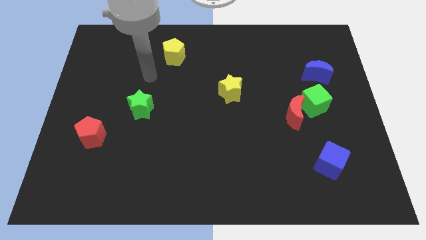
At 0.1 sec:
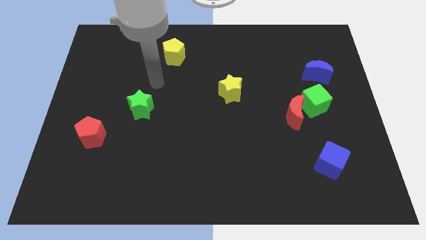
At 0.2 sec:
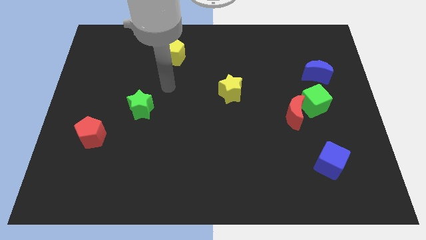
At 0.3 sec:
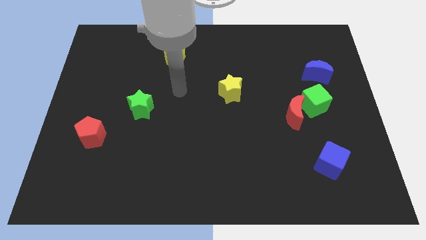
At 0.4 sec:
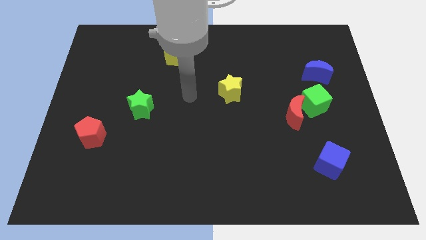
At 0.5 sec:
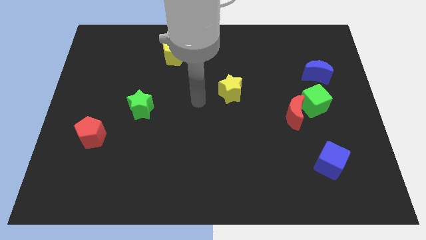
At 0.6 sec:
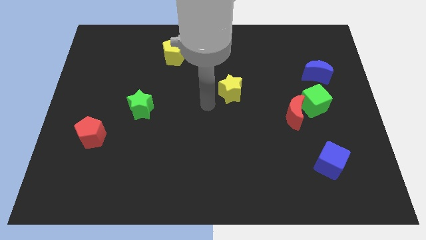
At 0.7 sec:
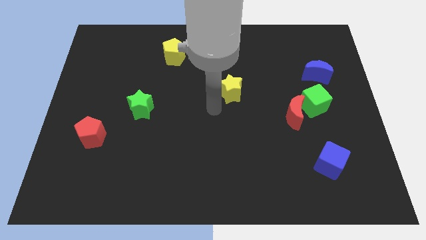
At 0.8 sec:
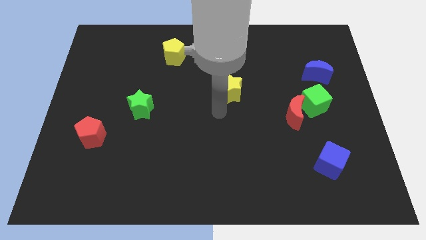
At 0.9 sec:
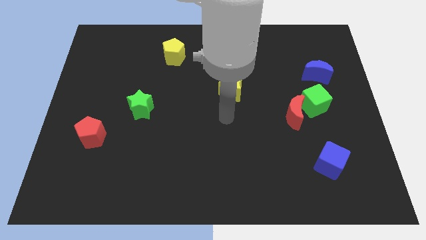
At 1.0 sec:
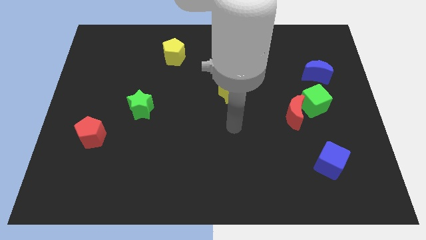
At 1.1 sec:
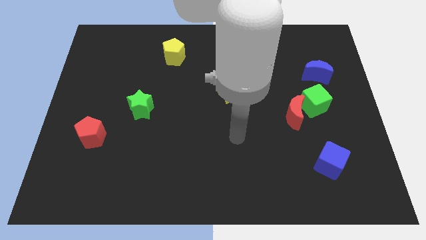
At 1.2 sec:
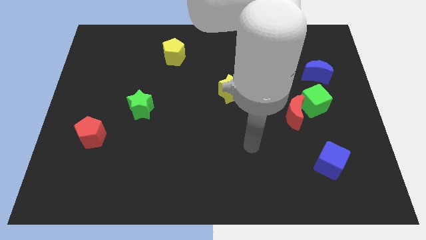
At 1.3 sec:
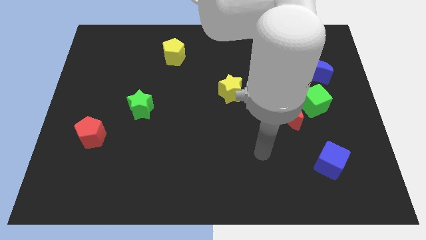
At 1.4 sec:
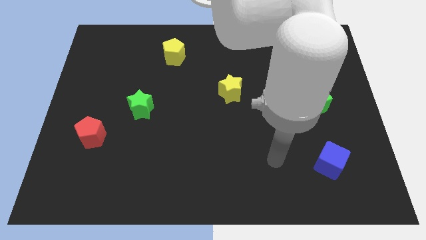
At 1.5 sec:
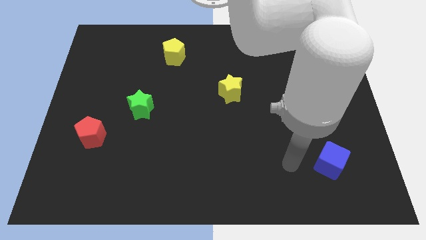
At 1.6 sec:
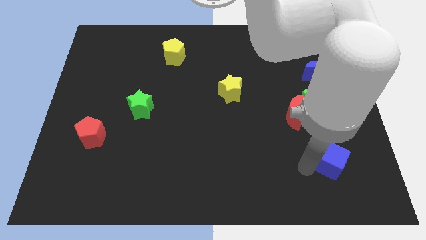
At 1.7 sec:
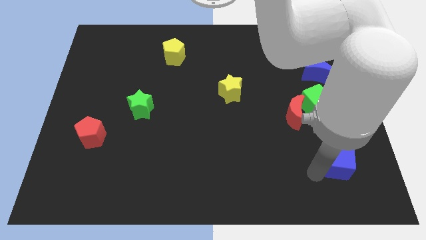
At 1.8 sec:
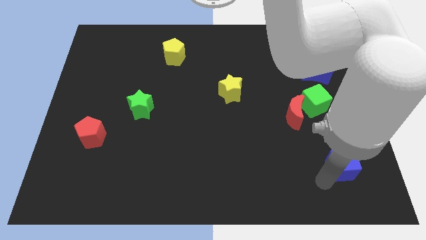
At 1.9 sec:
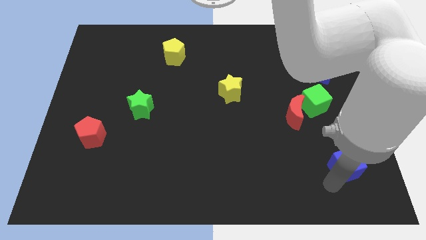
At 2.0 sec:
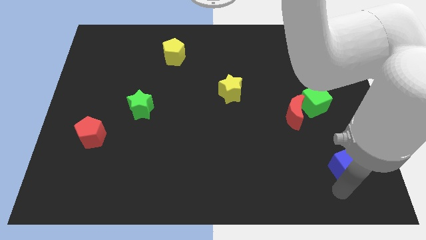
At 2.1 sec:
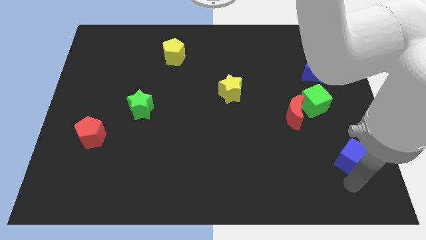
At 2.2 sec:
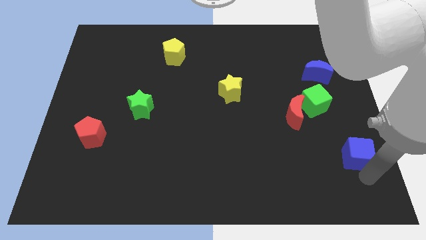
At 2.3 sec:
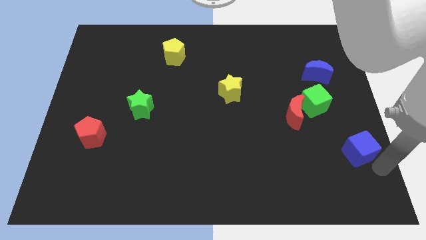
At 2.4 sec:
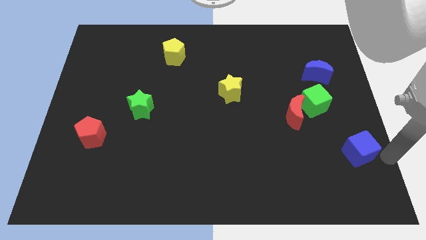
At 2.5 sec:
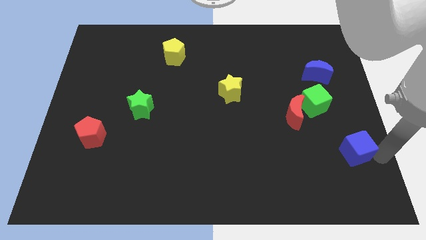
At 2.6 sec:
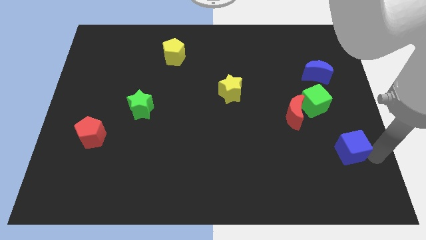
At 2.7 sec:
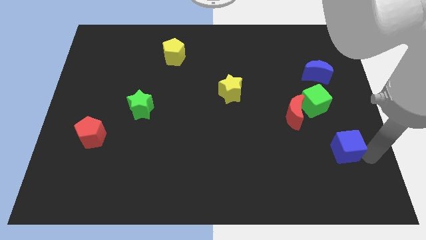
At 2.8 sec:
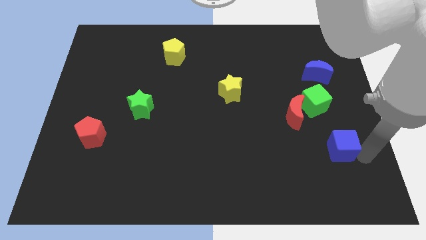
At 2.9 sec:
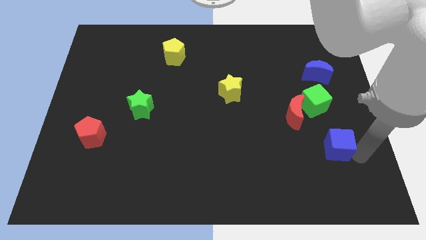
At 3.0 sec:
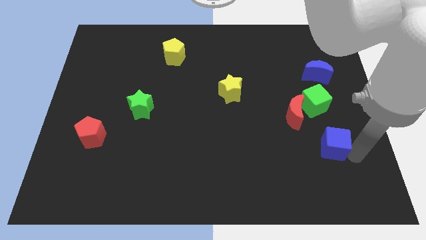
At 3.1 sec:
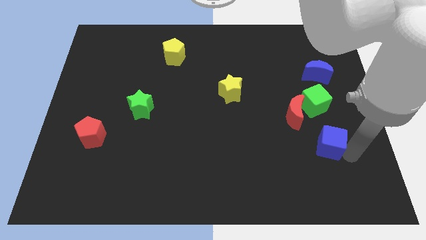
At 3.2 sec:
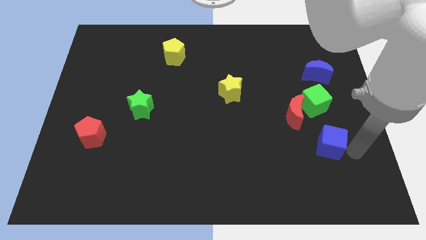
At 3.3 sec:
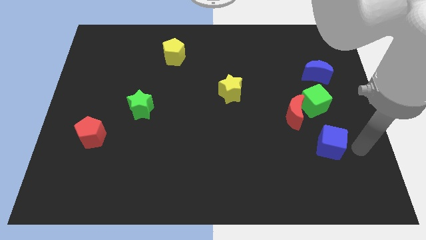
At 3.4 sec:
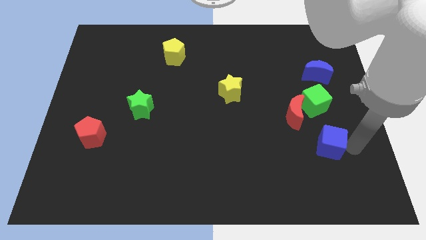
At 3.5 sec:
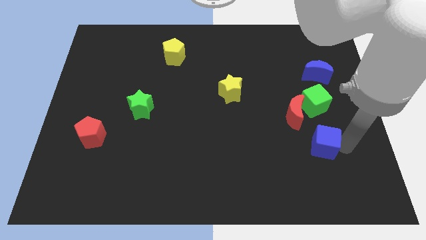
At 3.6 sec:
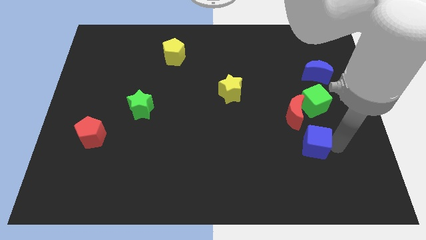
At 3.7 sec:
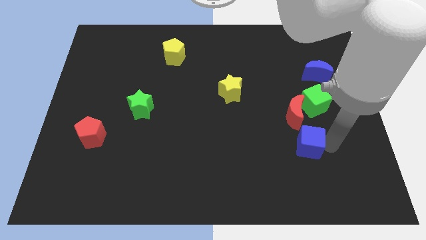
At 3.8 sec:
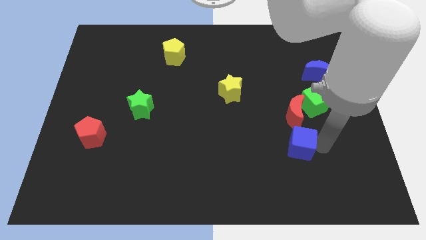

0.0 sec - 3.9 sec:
slide the blue cube diagonally upwards and to the left somewhat

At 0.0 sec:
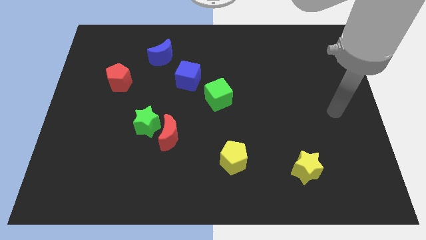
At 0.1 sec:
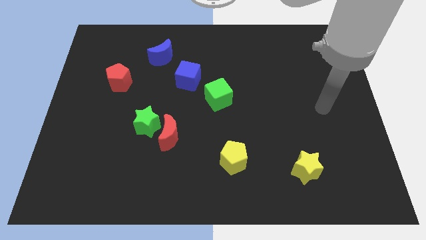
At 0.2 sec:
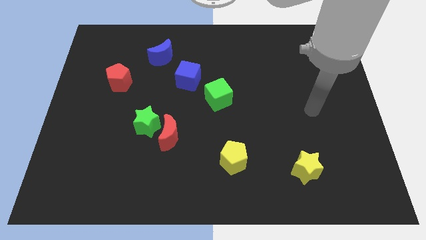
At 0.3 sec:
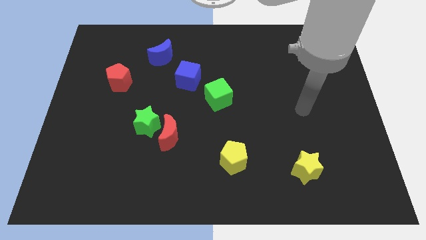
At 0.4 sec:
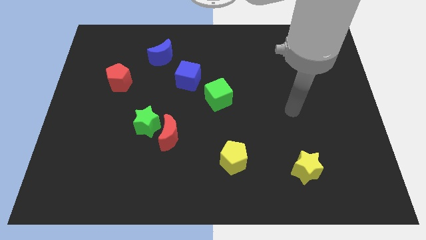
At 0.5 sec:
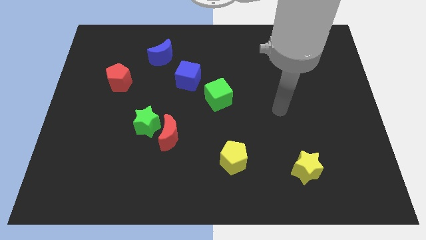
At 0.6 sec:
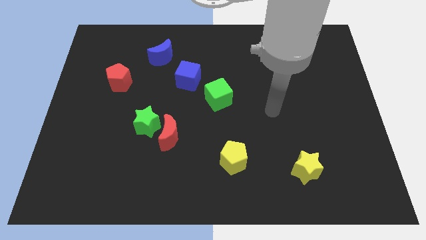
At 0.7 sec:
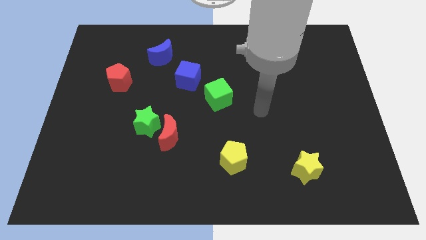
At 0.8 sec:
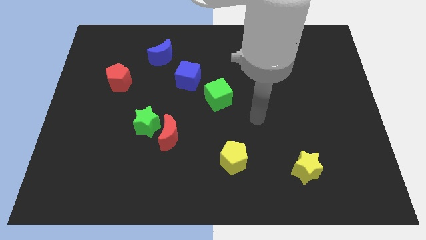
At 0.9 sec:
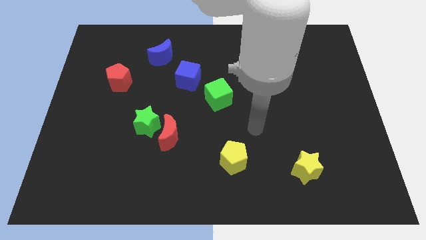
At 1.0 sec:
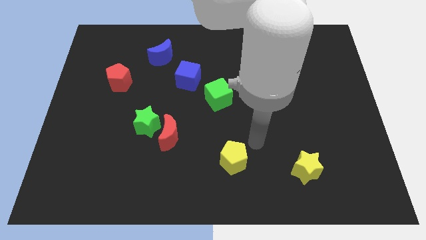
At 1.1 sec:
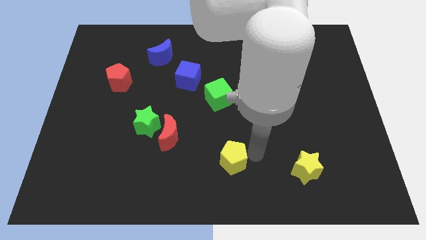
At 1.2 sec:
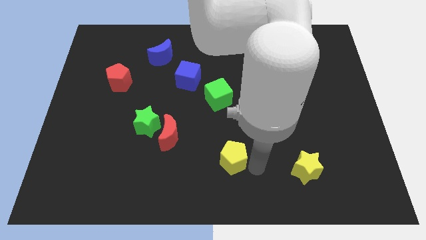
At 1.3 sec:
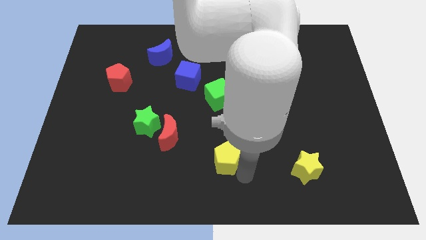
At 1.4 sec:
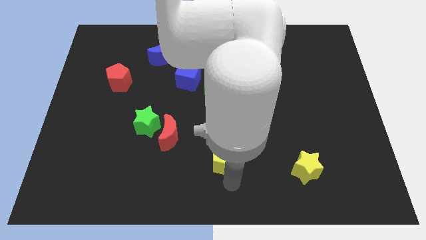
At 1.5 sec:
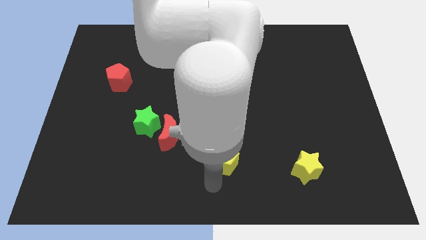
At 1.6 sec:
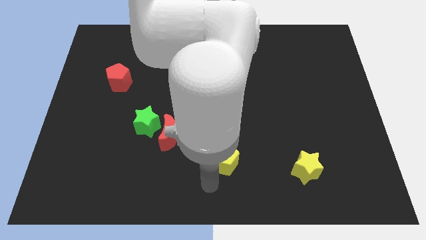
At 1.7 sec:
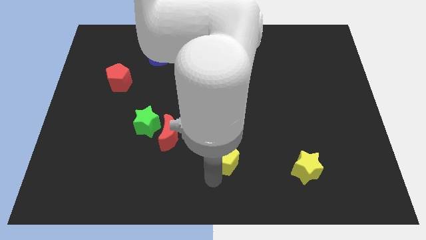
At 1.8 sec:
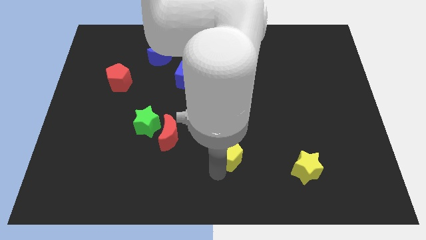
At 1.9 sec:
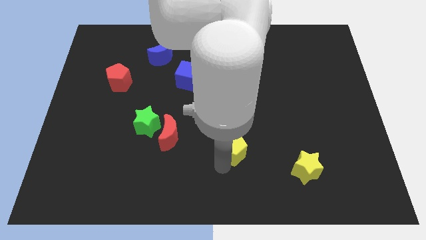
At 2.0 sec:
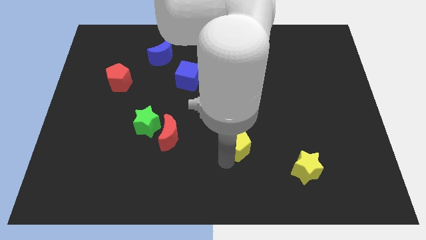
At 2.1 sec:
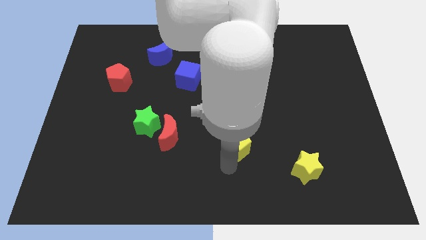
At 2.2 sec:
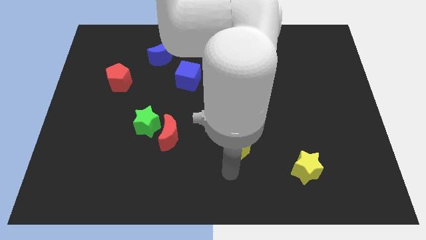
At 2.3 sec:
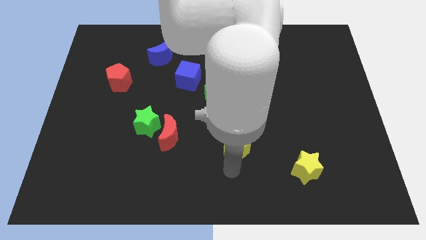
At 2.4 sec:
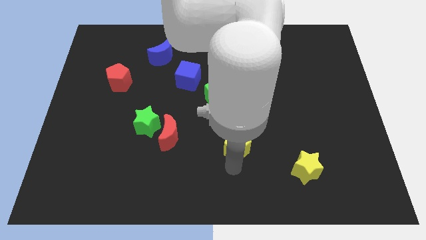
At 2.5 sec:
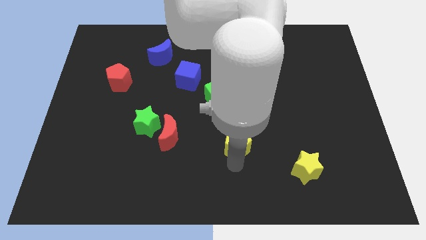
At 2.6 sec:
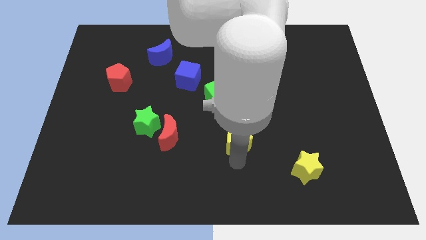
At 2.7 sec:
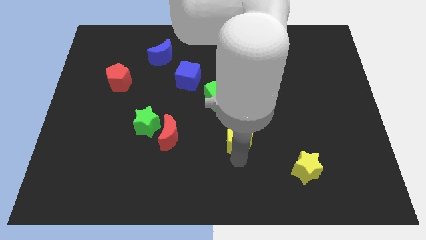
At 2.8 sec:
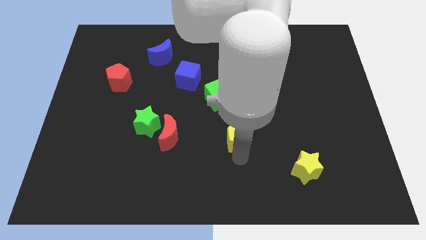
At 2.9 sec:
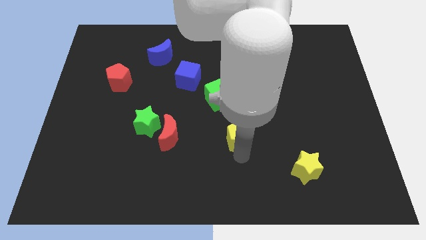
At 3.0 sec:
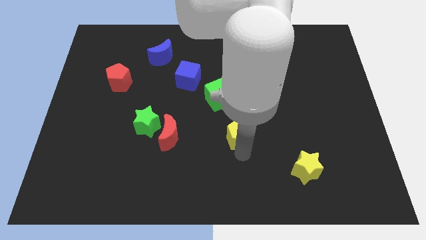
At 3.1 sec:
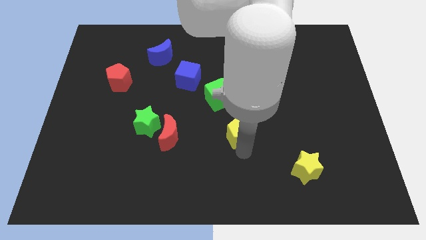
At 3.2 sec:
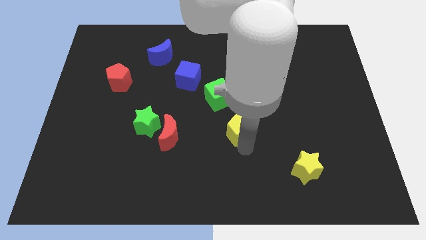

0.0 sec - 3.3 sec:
slightly push the yellow pentagon up

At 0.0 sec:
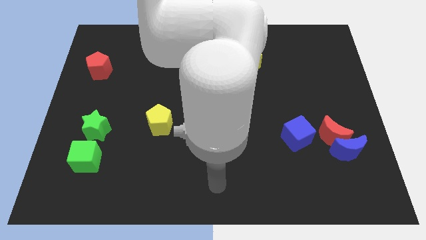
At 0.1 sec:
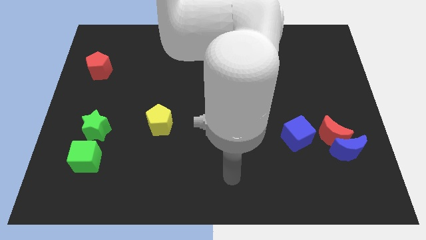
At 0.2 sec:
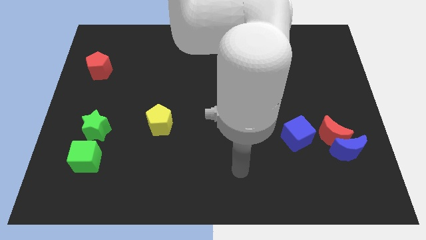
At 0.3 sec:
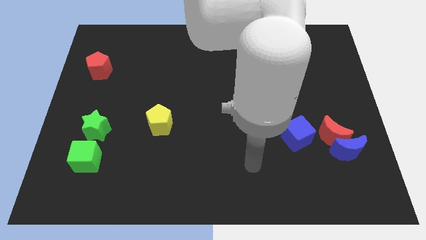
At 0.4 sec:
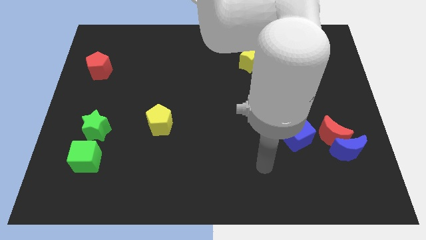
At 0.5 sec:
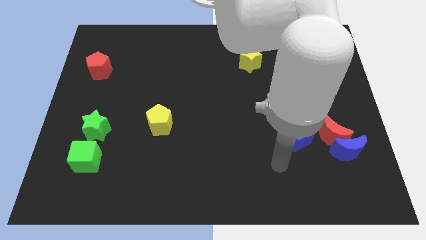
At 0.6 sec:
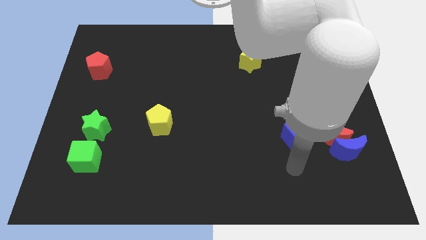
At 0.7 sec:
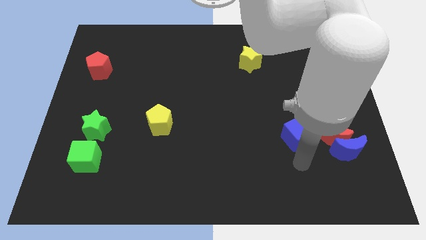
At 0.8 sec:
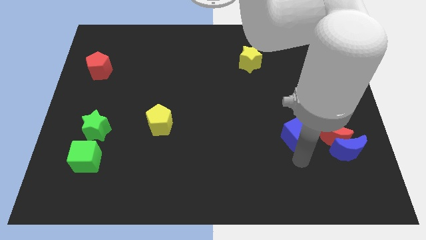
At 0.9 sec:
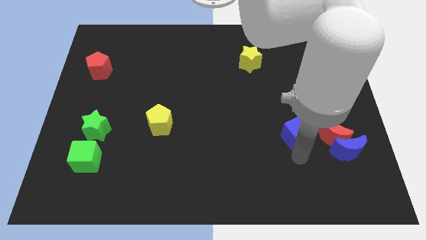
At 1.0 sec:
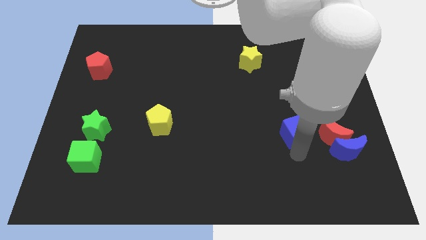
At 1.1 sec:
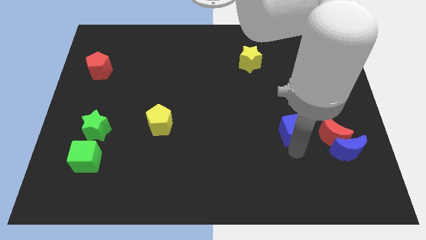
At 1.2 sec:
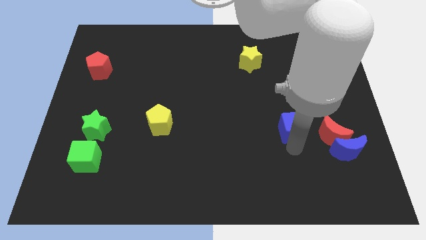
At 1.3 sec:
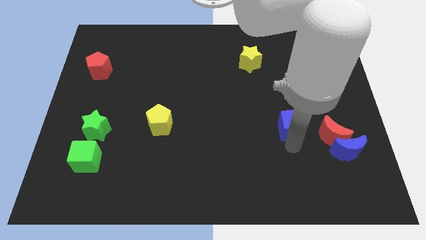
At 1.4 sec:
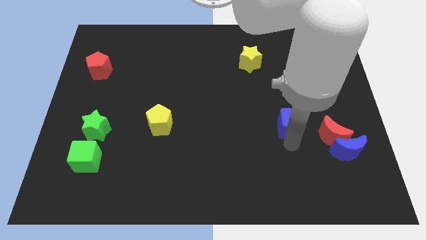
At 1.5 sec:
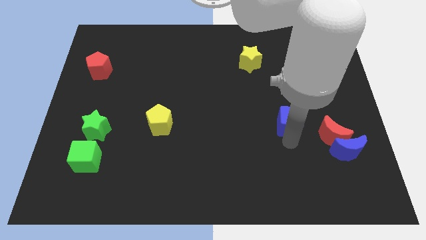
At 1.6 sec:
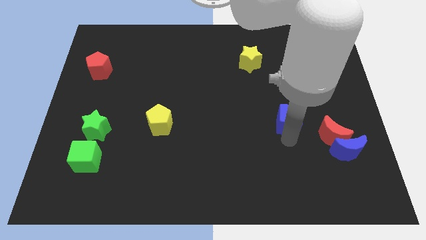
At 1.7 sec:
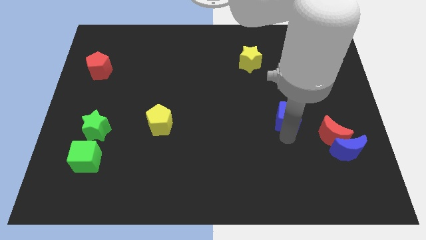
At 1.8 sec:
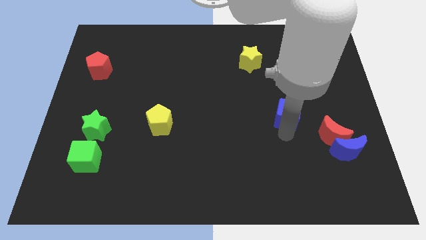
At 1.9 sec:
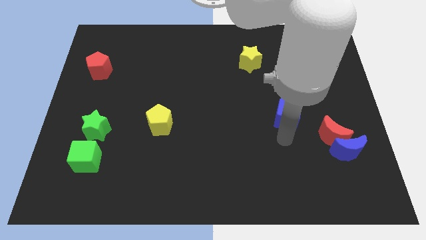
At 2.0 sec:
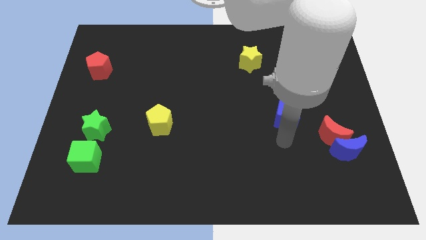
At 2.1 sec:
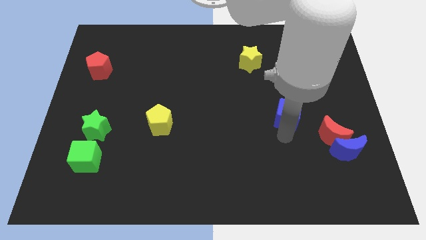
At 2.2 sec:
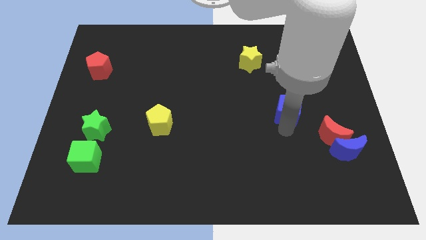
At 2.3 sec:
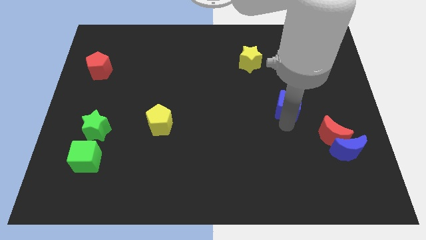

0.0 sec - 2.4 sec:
push the blue cube a little bit up
